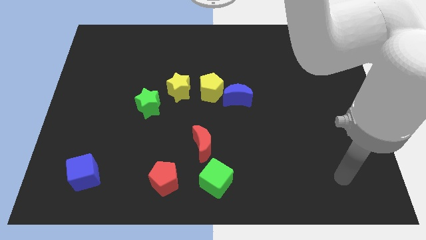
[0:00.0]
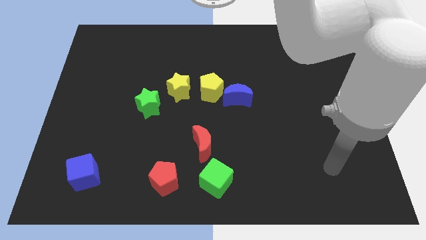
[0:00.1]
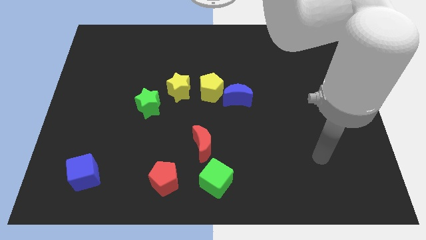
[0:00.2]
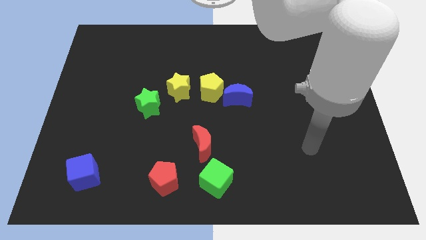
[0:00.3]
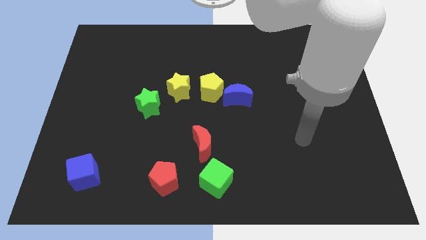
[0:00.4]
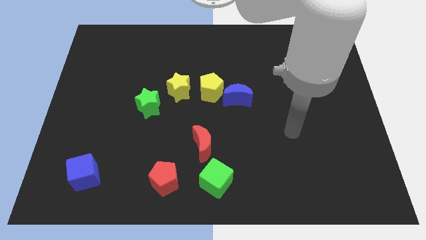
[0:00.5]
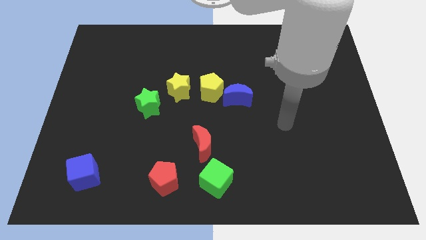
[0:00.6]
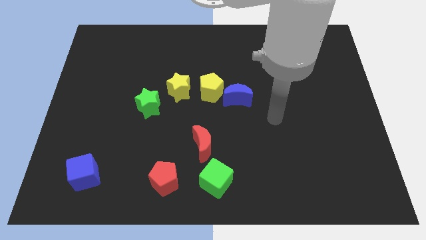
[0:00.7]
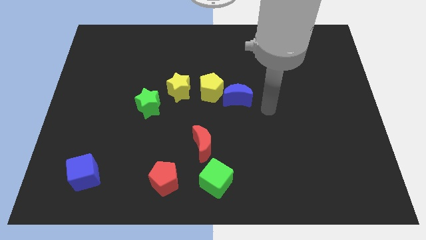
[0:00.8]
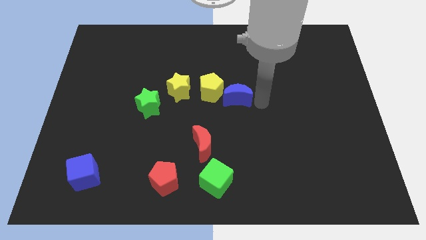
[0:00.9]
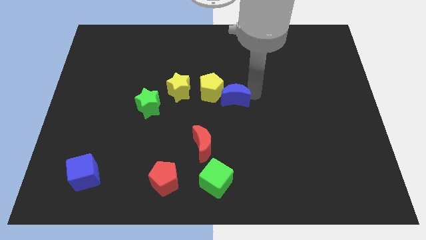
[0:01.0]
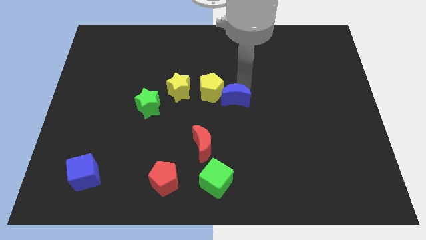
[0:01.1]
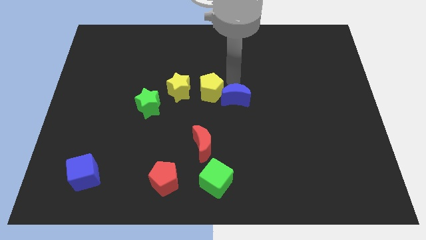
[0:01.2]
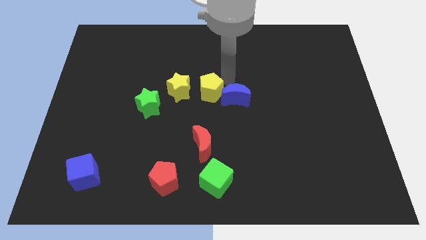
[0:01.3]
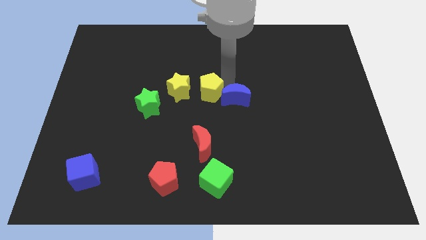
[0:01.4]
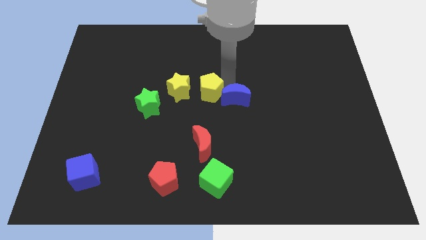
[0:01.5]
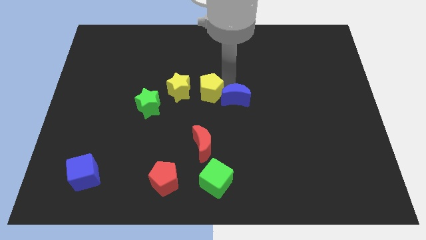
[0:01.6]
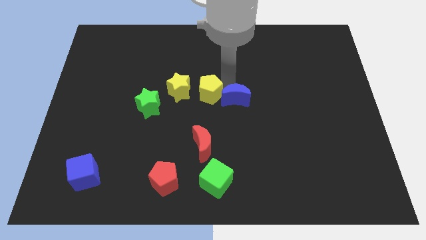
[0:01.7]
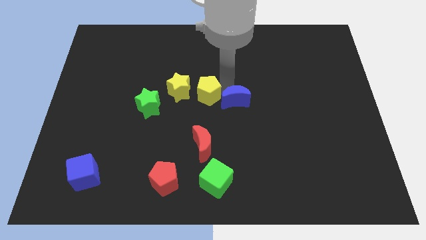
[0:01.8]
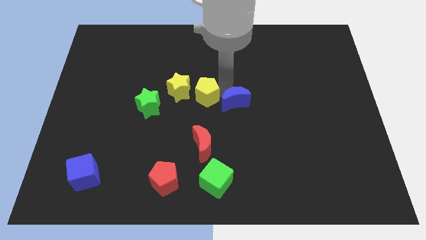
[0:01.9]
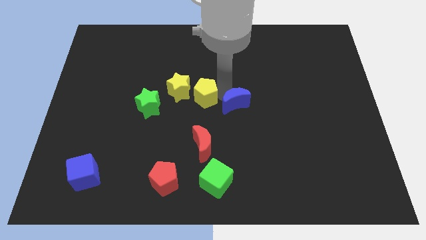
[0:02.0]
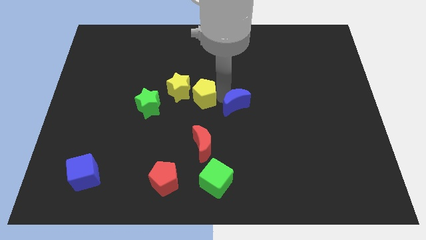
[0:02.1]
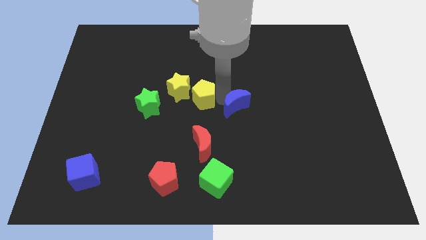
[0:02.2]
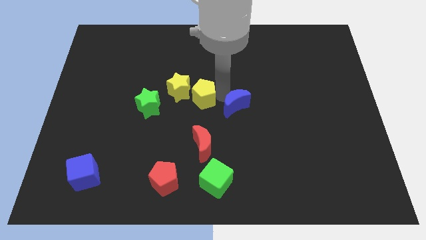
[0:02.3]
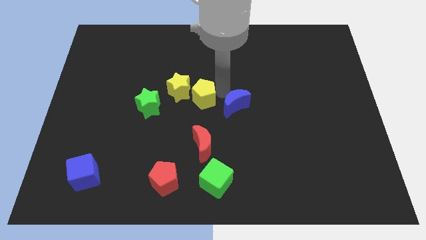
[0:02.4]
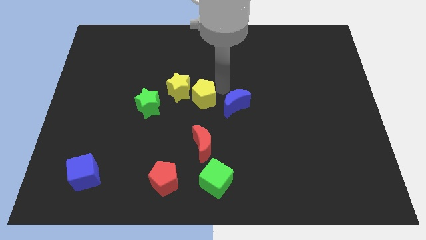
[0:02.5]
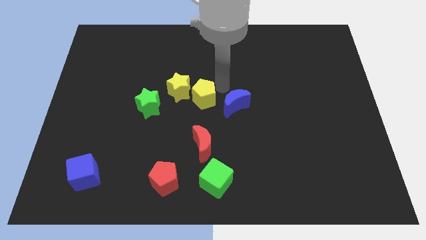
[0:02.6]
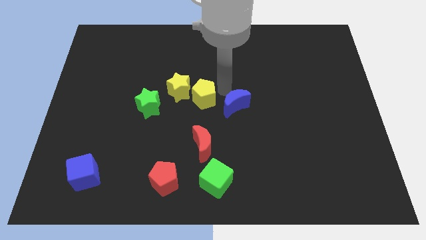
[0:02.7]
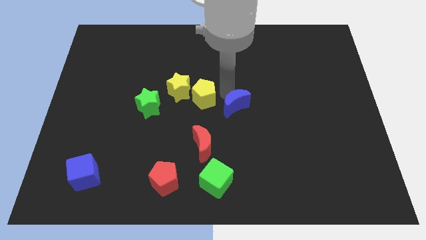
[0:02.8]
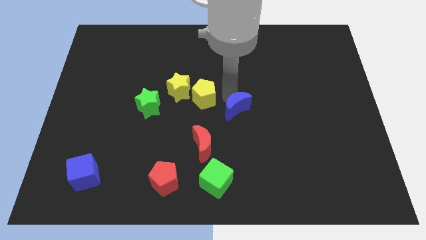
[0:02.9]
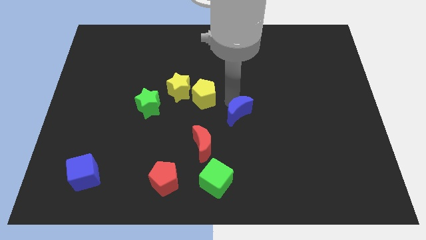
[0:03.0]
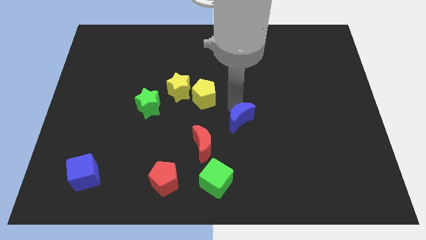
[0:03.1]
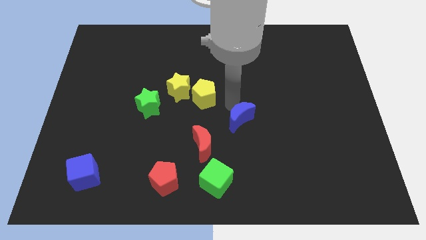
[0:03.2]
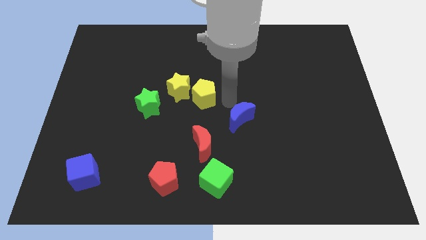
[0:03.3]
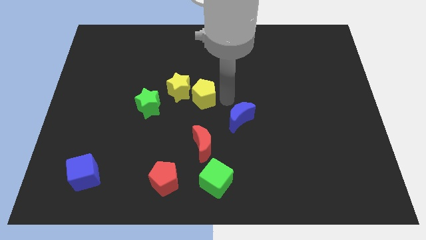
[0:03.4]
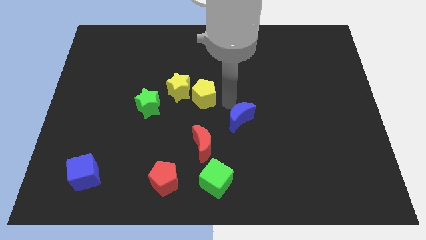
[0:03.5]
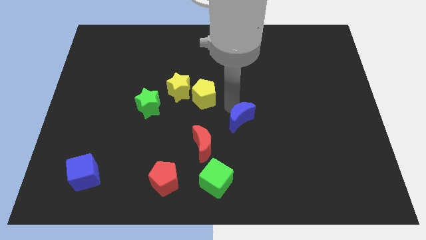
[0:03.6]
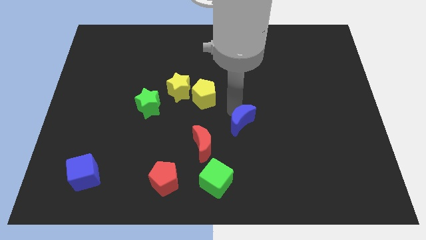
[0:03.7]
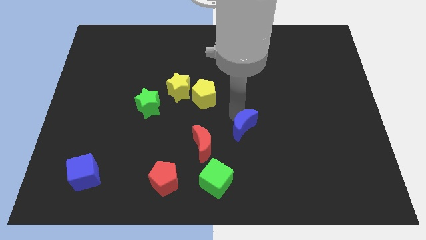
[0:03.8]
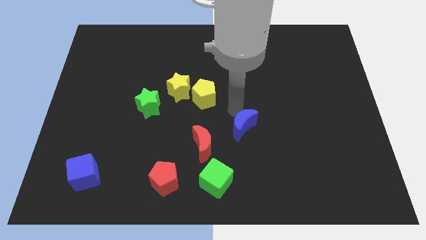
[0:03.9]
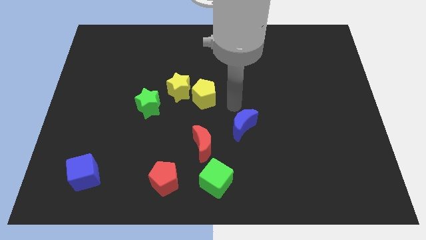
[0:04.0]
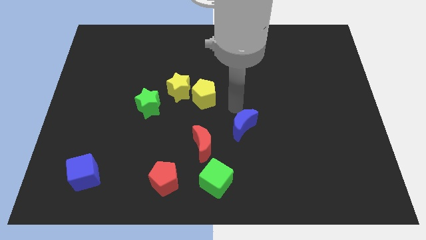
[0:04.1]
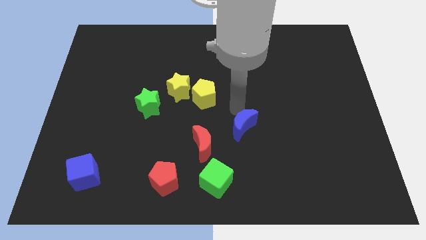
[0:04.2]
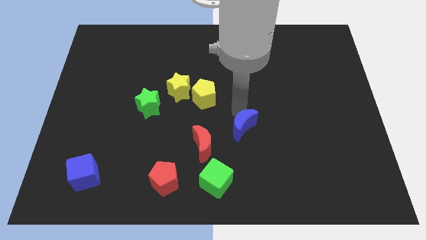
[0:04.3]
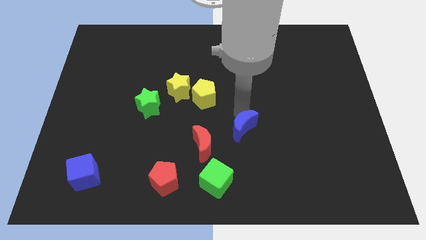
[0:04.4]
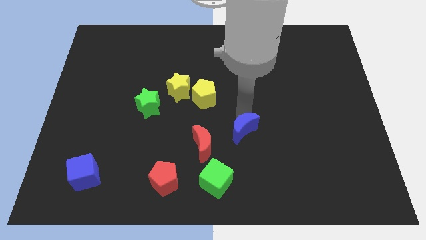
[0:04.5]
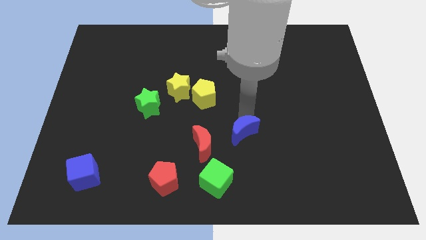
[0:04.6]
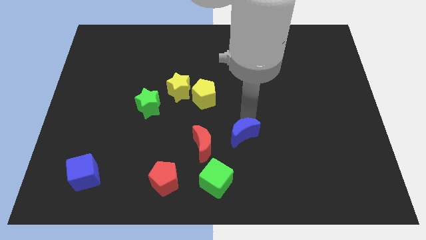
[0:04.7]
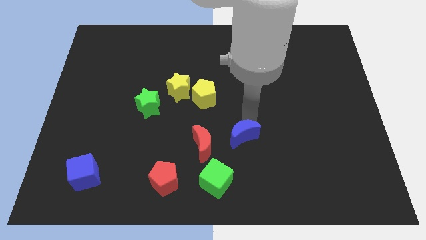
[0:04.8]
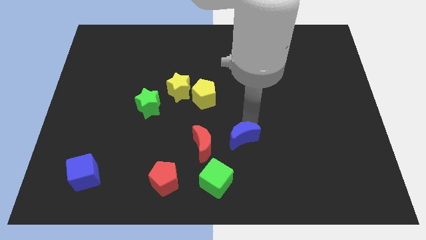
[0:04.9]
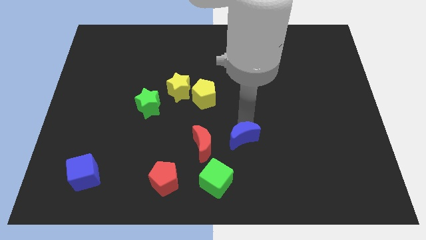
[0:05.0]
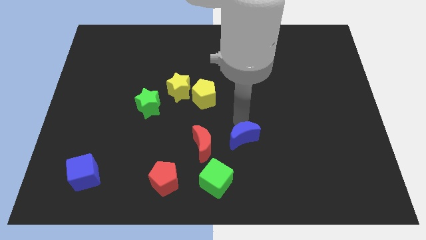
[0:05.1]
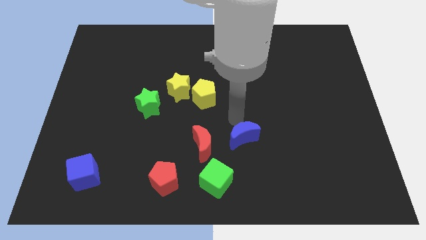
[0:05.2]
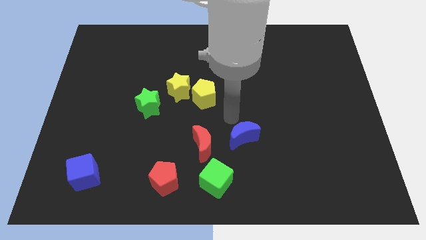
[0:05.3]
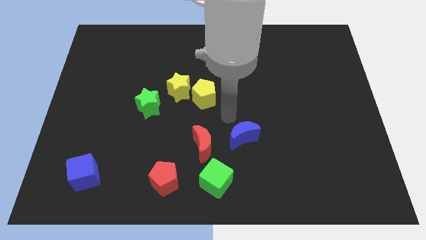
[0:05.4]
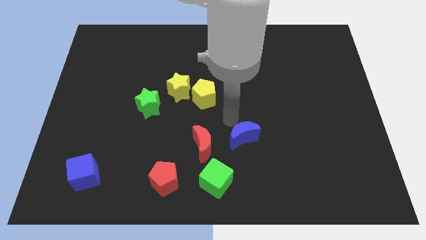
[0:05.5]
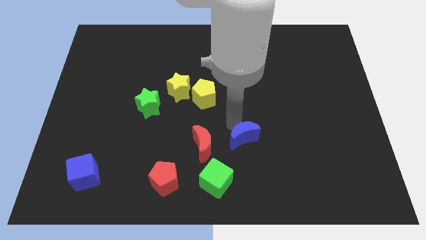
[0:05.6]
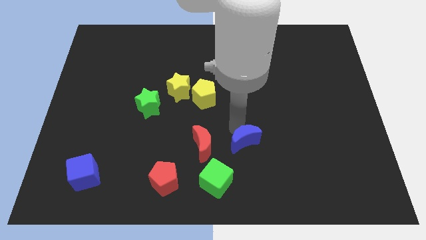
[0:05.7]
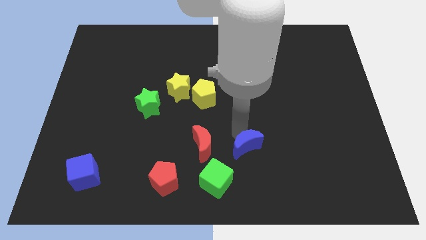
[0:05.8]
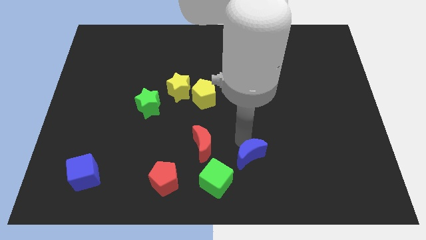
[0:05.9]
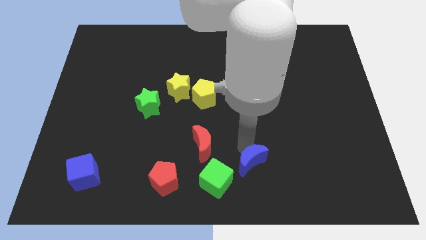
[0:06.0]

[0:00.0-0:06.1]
put the blue moon right of the green cube

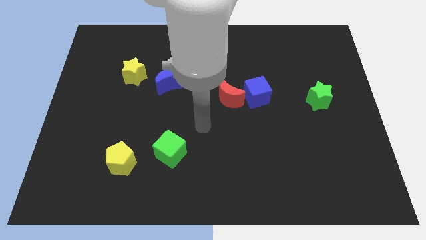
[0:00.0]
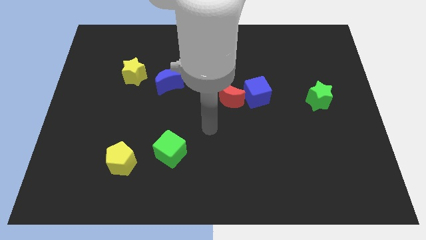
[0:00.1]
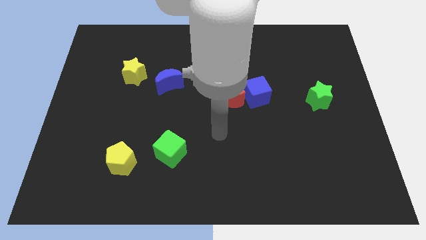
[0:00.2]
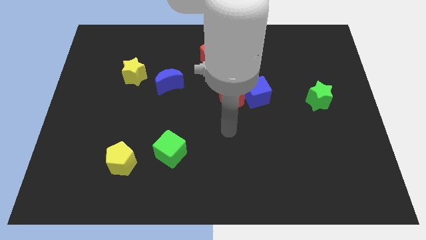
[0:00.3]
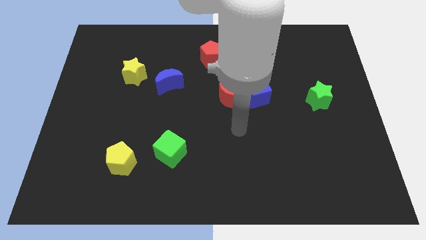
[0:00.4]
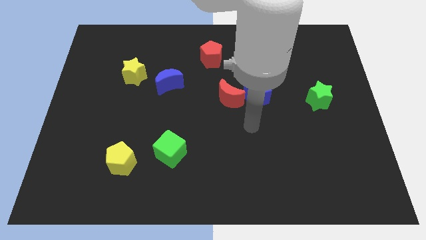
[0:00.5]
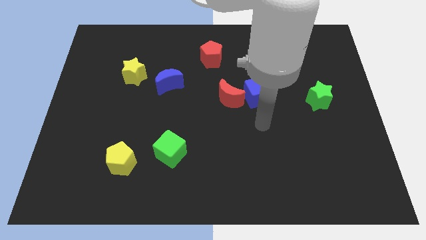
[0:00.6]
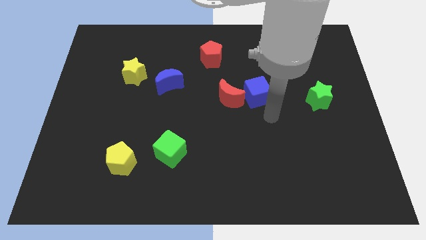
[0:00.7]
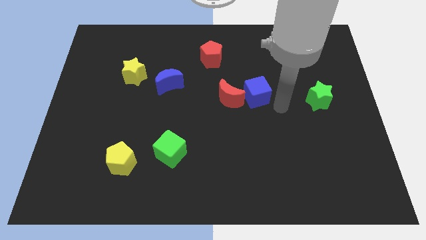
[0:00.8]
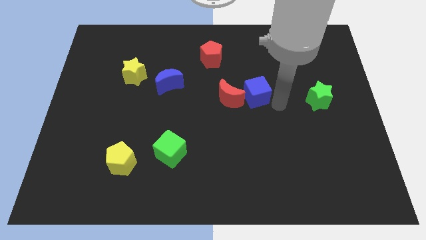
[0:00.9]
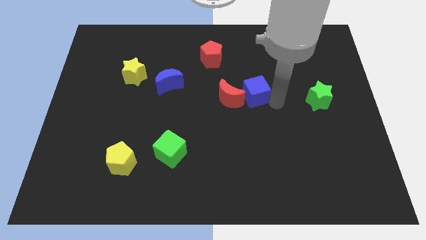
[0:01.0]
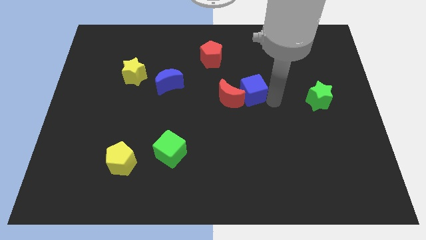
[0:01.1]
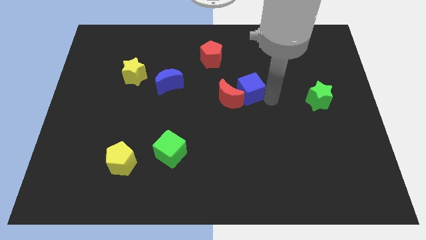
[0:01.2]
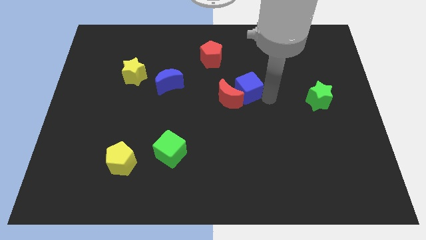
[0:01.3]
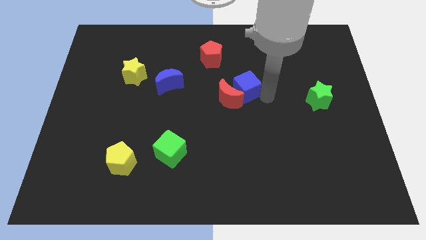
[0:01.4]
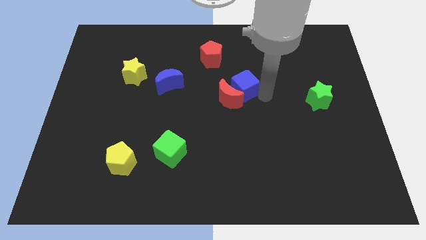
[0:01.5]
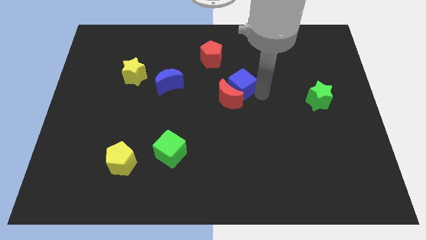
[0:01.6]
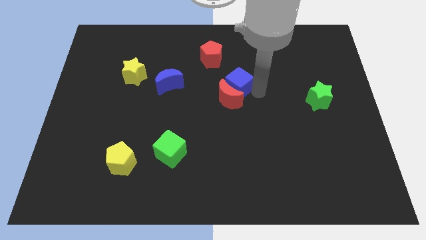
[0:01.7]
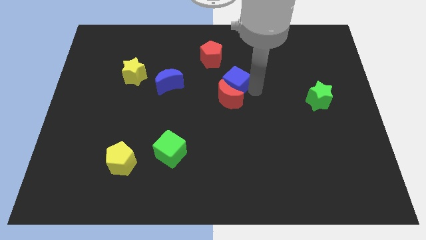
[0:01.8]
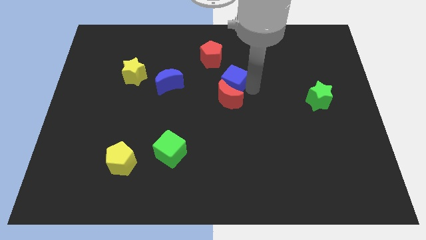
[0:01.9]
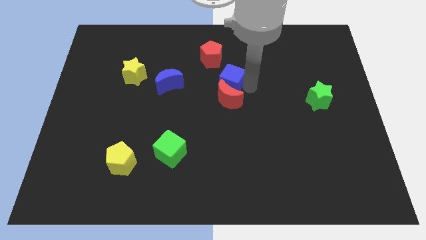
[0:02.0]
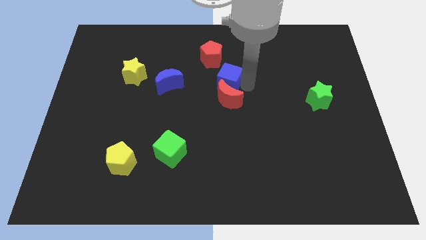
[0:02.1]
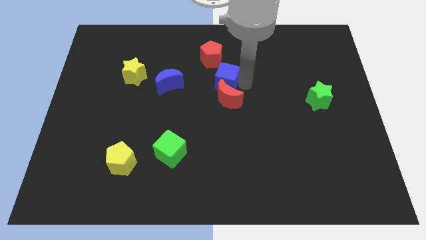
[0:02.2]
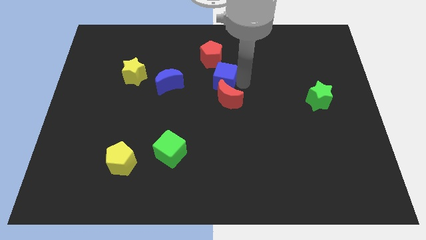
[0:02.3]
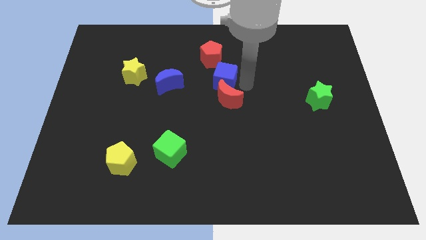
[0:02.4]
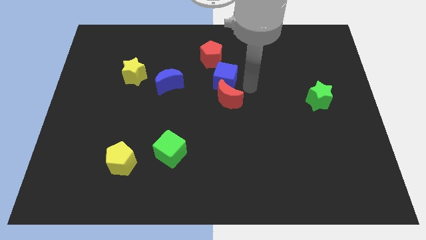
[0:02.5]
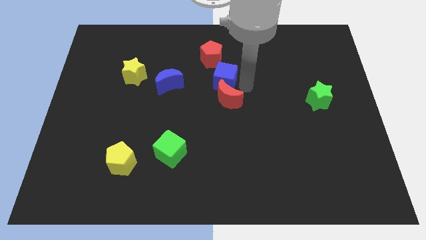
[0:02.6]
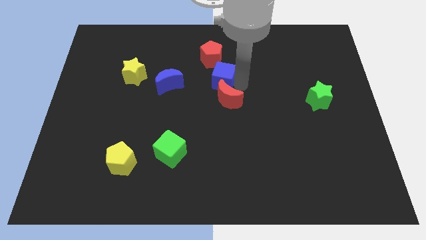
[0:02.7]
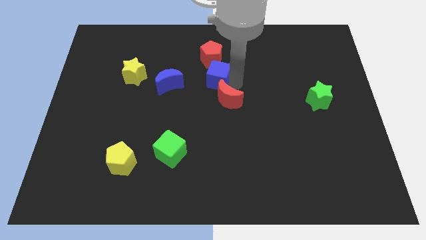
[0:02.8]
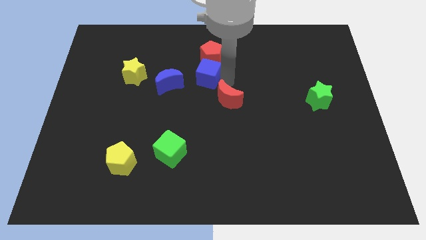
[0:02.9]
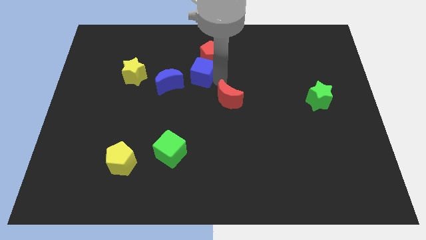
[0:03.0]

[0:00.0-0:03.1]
move the blue cube diagonally up and to the right of the blue moon
